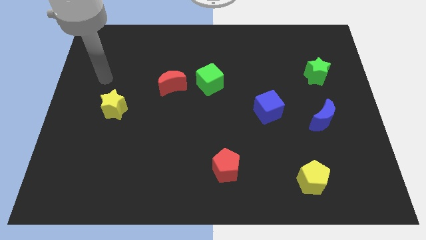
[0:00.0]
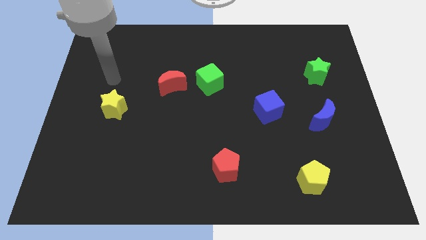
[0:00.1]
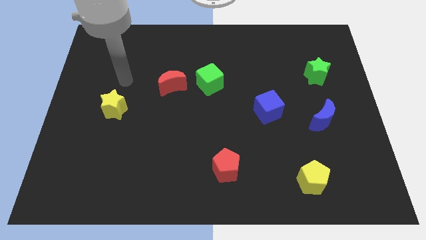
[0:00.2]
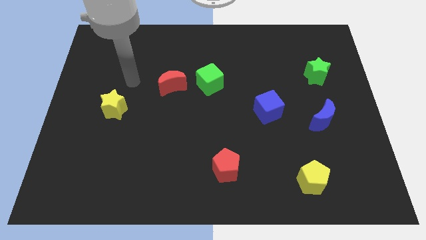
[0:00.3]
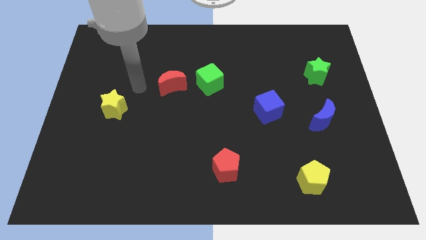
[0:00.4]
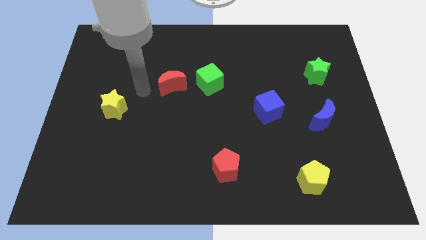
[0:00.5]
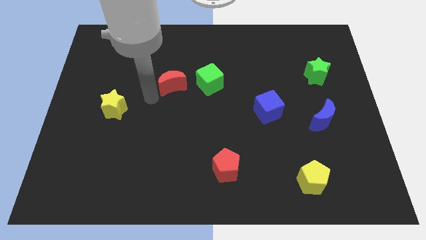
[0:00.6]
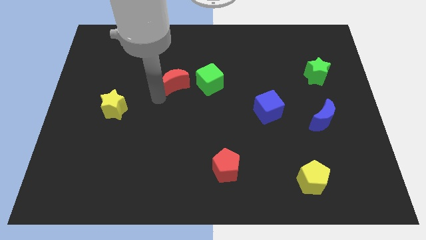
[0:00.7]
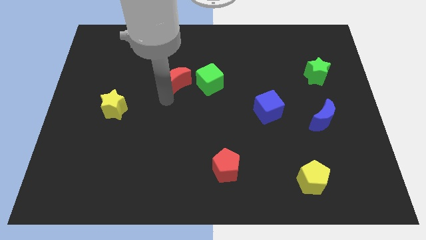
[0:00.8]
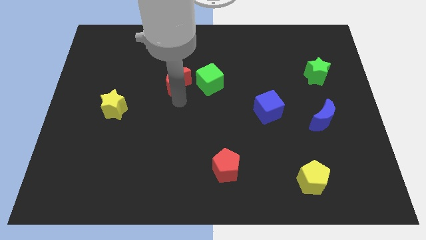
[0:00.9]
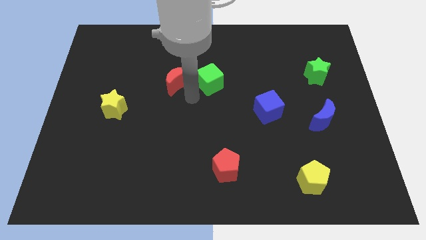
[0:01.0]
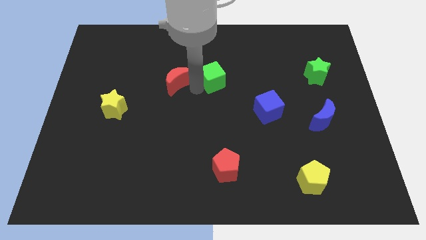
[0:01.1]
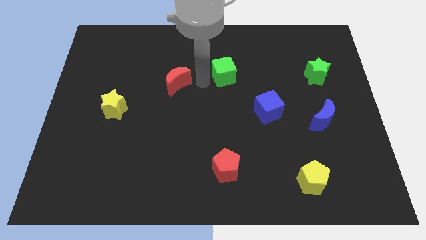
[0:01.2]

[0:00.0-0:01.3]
separate the red moon from the green cube

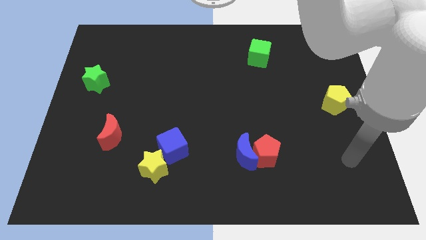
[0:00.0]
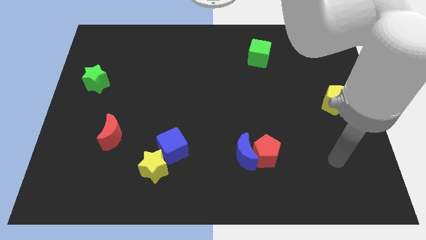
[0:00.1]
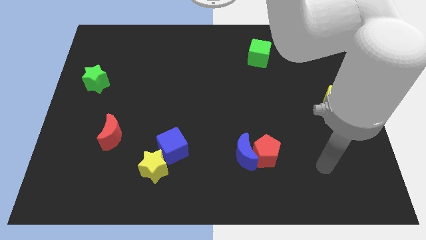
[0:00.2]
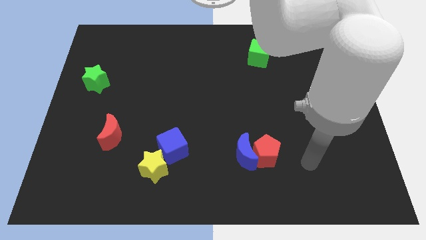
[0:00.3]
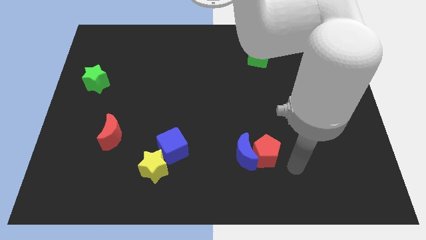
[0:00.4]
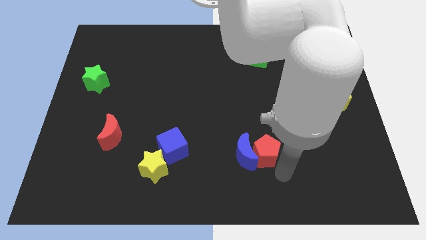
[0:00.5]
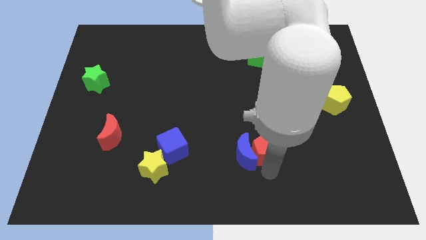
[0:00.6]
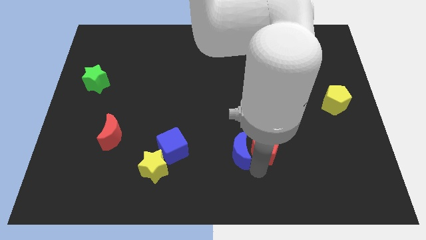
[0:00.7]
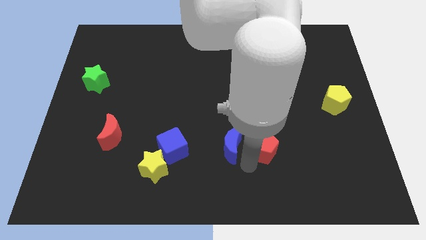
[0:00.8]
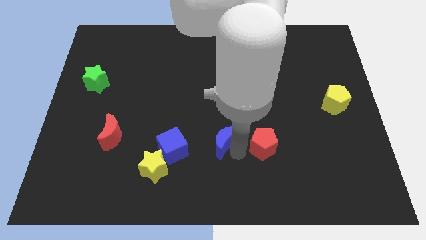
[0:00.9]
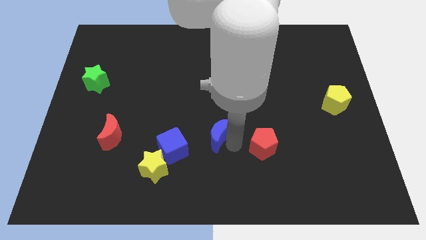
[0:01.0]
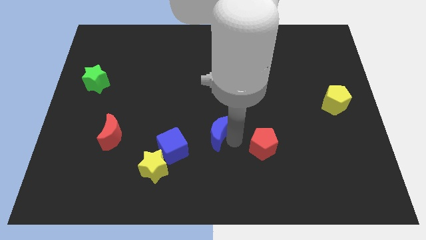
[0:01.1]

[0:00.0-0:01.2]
separate the red pentagon from the blue moon

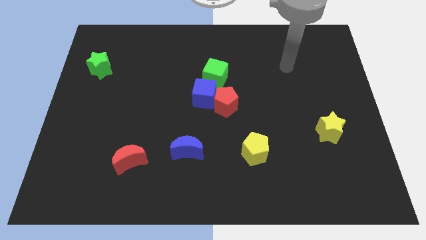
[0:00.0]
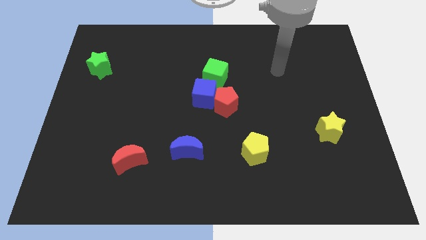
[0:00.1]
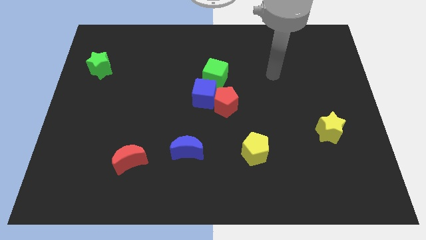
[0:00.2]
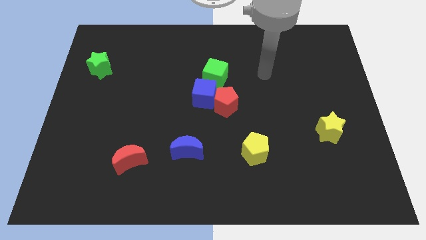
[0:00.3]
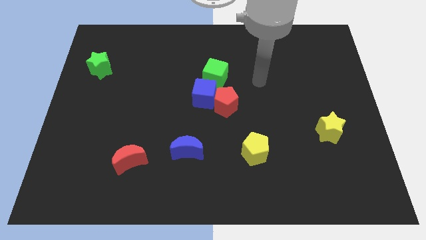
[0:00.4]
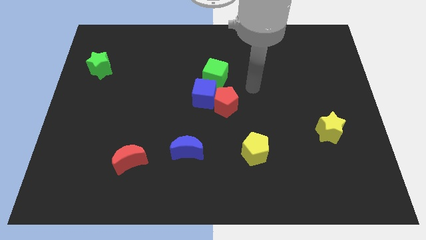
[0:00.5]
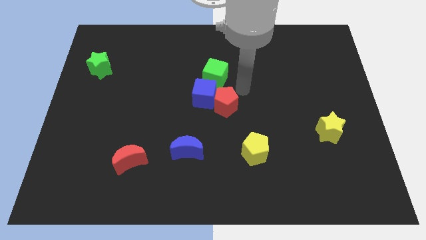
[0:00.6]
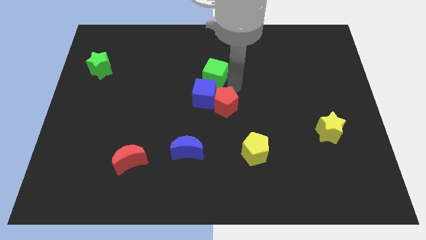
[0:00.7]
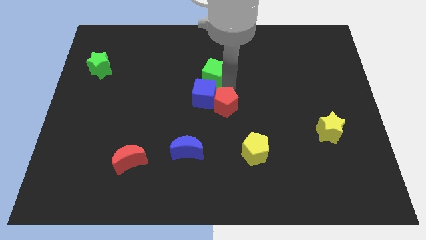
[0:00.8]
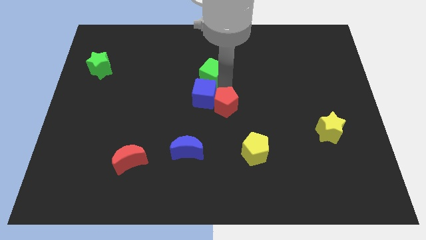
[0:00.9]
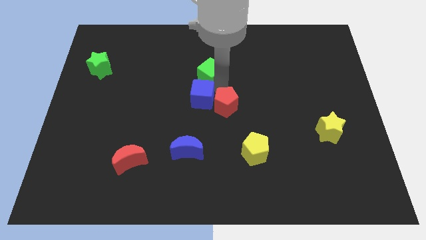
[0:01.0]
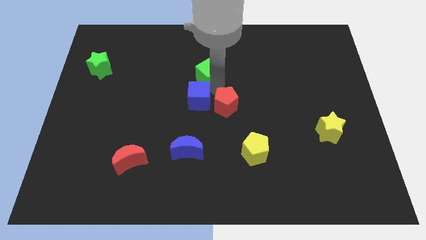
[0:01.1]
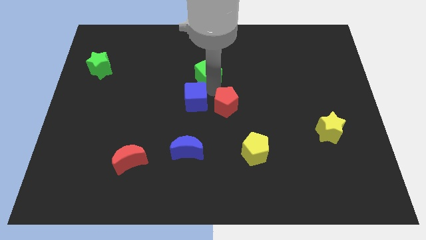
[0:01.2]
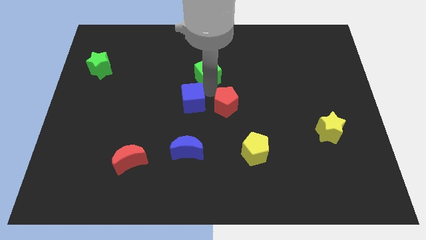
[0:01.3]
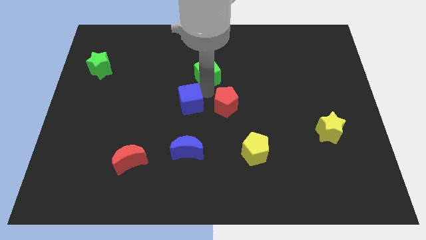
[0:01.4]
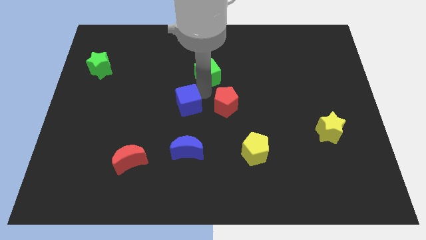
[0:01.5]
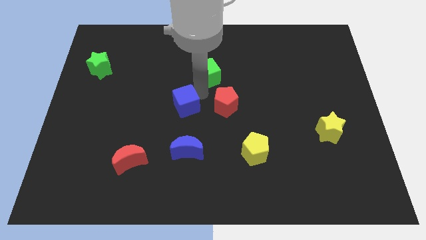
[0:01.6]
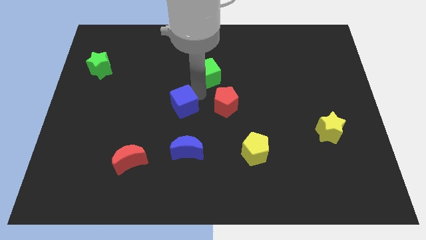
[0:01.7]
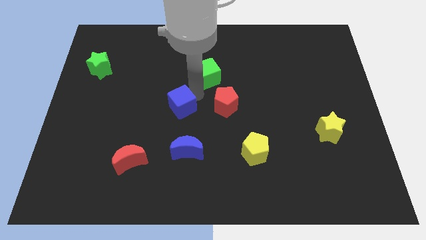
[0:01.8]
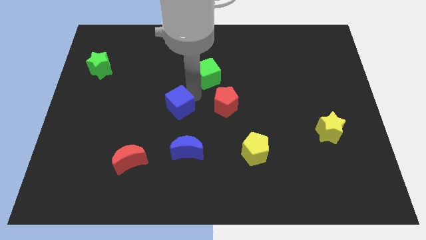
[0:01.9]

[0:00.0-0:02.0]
pull the blue cube apart from the red pentagon and green cube

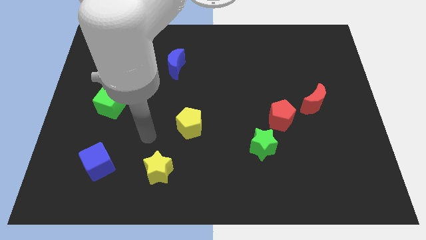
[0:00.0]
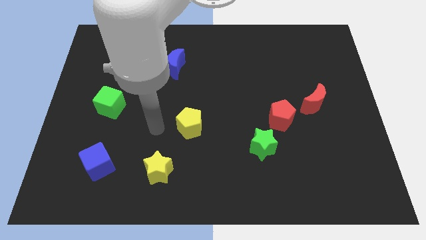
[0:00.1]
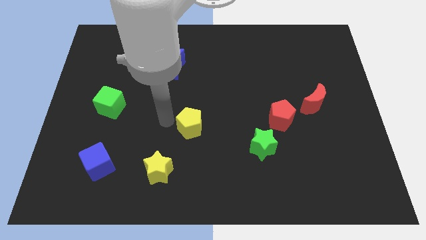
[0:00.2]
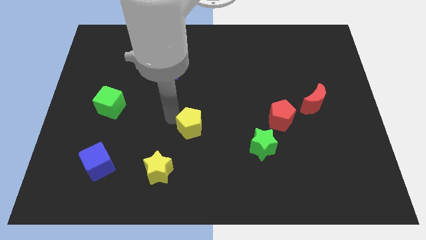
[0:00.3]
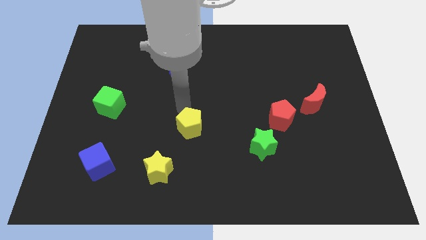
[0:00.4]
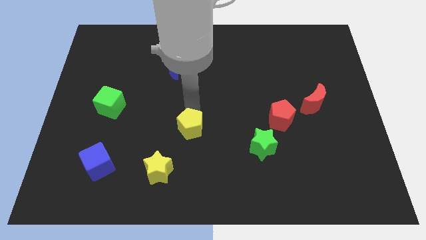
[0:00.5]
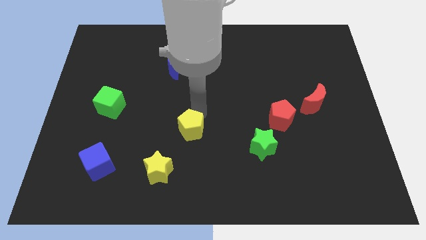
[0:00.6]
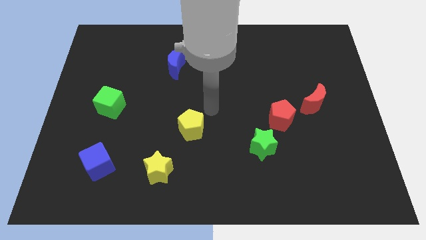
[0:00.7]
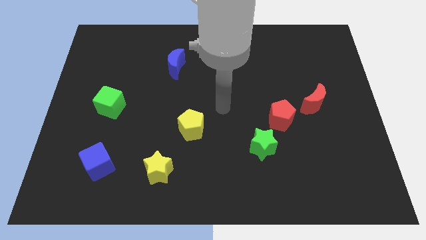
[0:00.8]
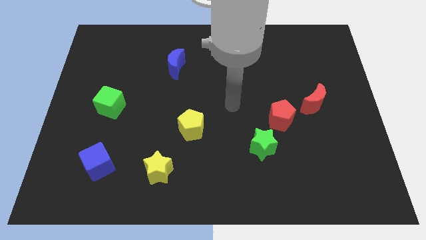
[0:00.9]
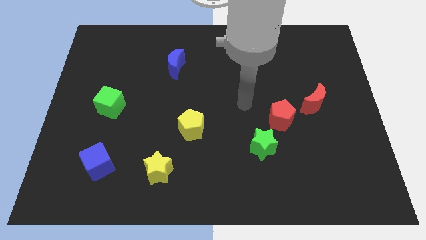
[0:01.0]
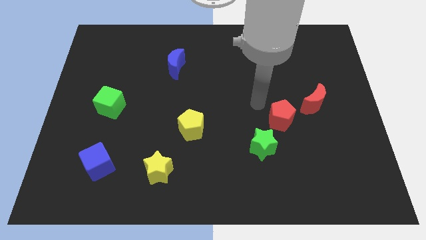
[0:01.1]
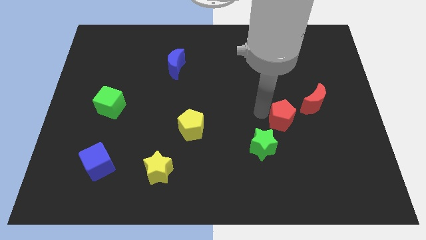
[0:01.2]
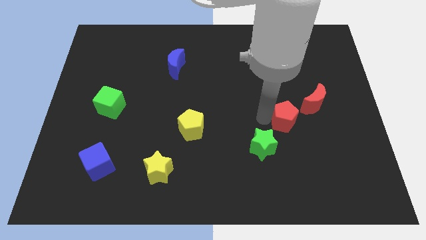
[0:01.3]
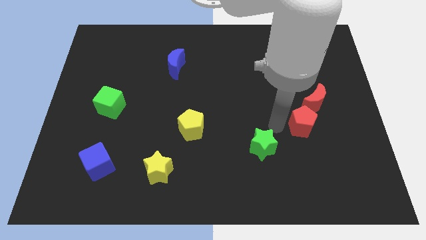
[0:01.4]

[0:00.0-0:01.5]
move the green star away from the red pentagon

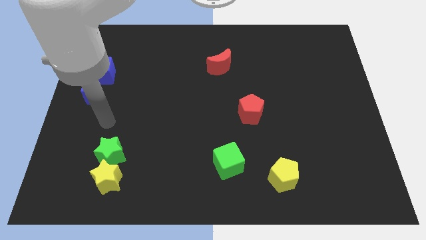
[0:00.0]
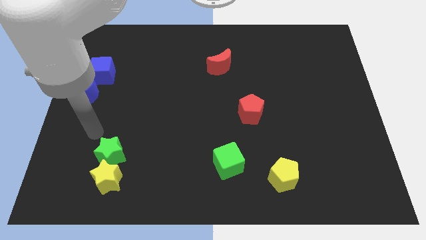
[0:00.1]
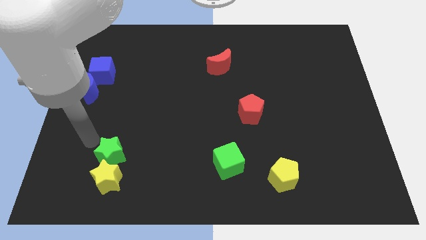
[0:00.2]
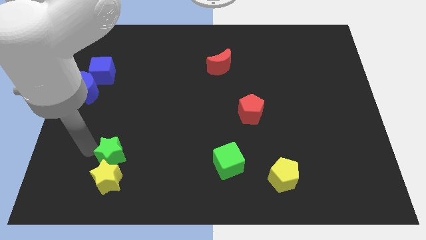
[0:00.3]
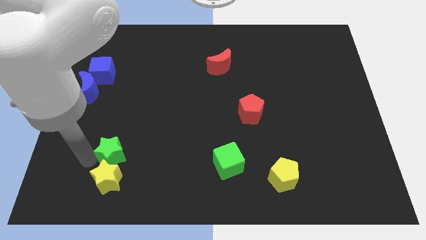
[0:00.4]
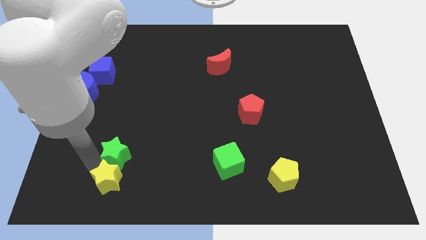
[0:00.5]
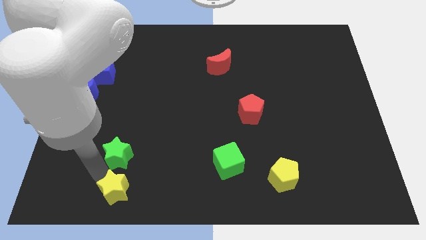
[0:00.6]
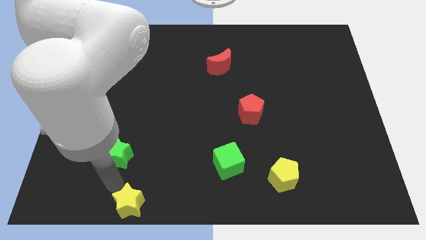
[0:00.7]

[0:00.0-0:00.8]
move the green star away from the yellow star

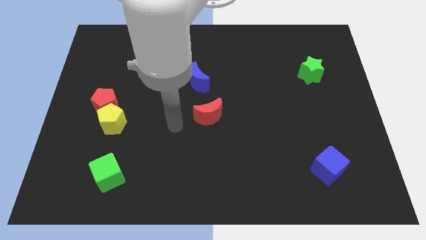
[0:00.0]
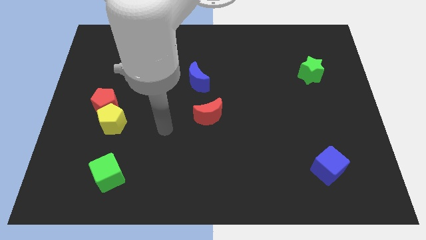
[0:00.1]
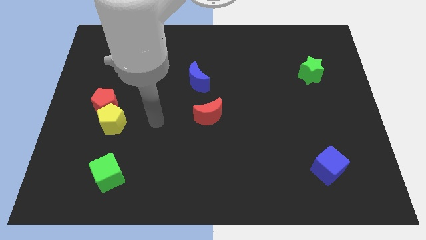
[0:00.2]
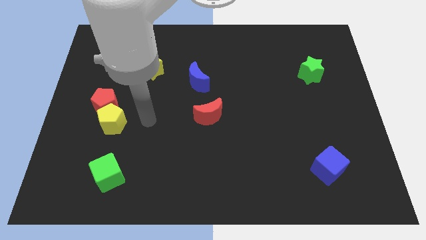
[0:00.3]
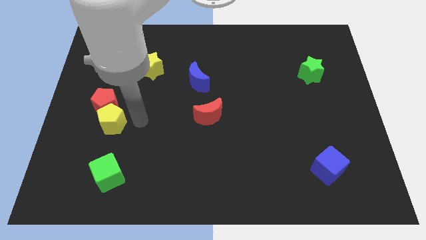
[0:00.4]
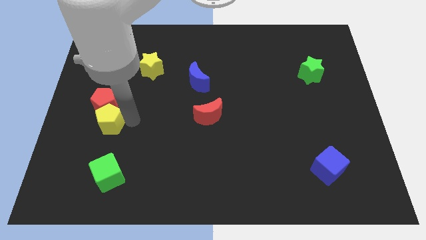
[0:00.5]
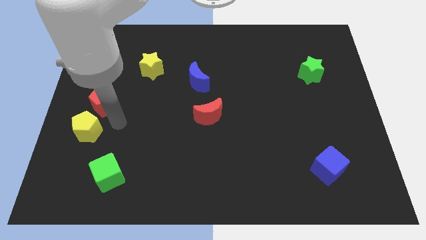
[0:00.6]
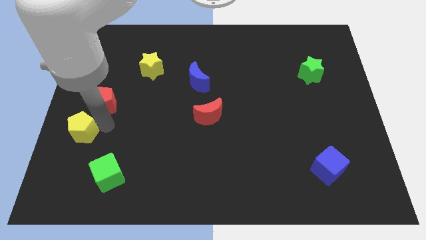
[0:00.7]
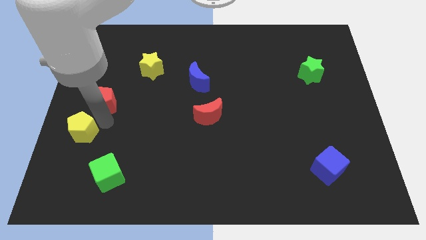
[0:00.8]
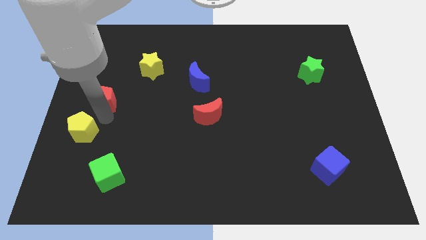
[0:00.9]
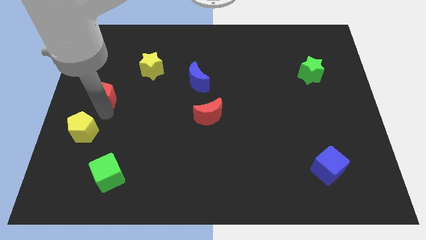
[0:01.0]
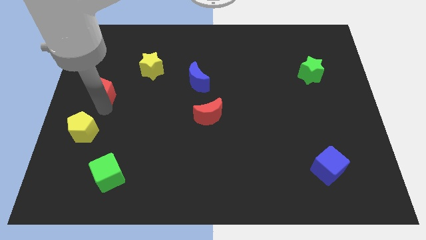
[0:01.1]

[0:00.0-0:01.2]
move the red pentagon away from the yellow pentagon

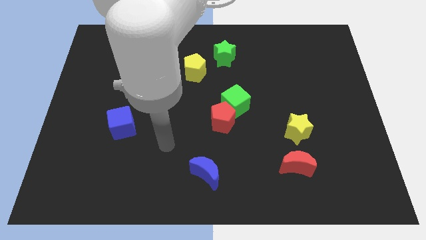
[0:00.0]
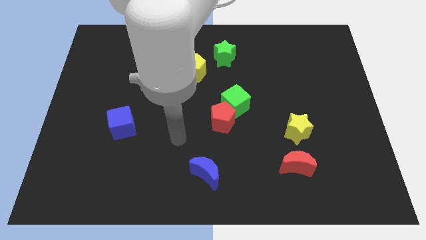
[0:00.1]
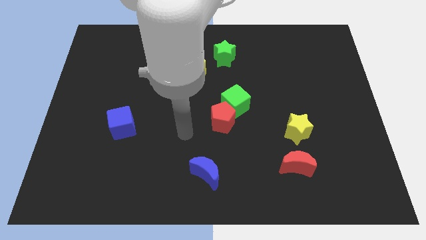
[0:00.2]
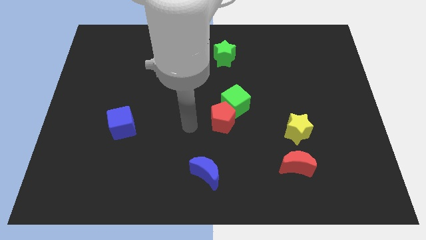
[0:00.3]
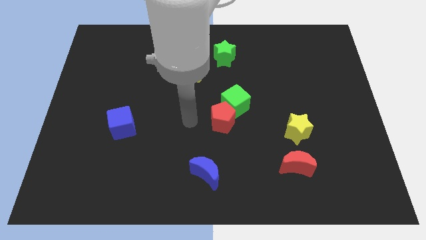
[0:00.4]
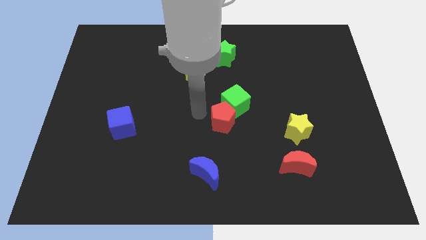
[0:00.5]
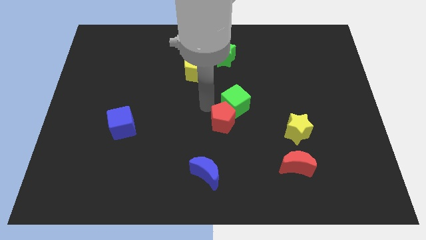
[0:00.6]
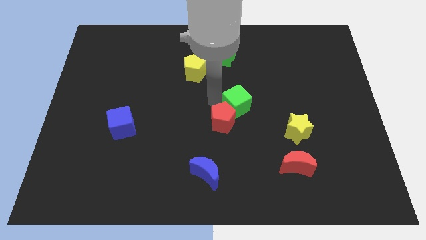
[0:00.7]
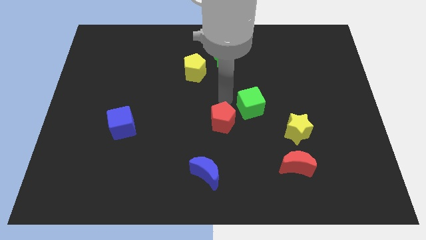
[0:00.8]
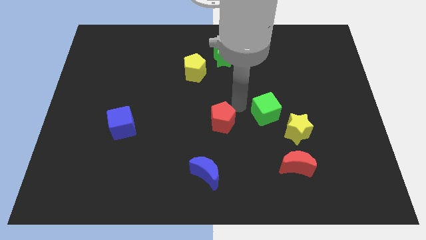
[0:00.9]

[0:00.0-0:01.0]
move the red pentagon away from the green cube

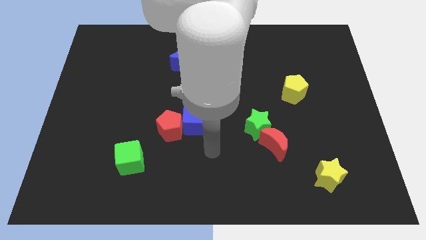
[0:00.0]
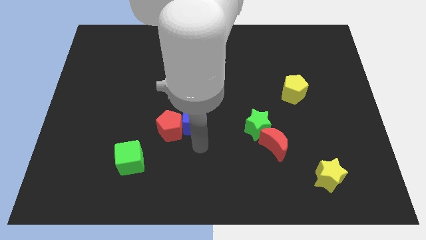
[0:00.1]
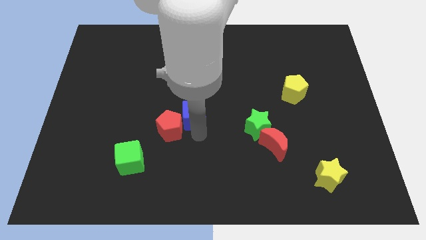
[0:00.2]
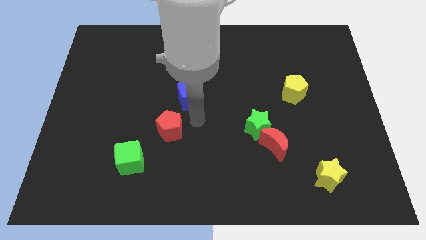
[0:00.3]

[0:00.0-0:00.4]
pull the red pentagon apart from the blue cube
